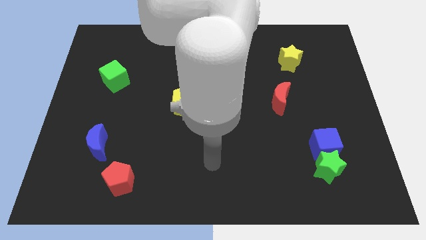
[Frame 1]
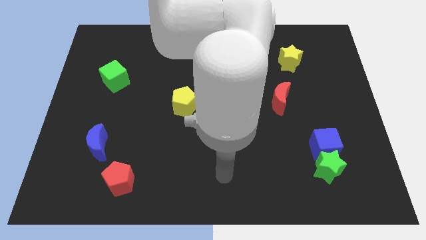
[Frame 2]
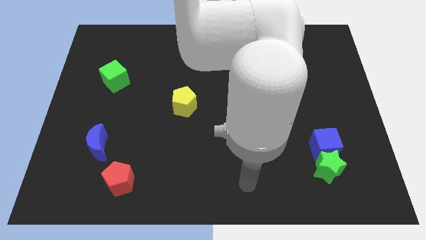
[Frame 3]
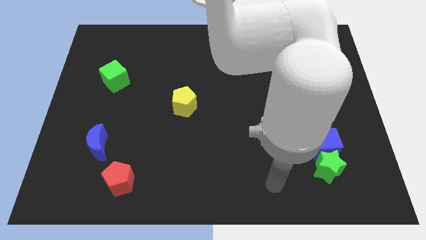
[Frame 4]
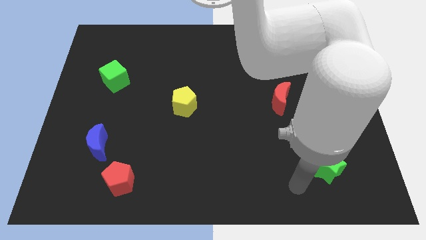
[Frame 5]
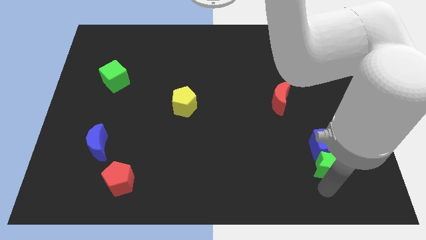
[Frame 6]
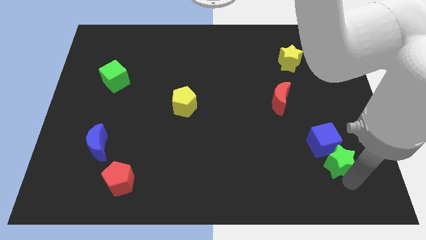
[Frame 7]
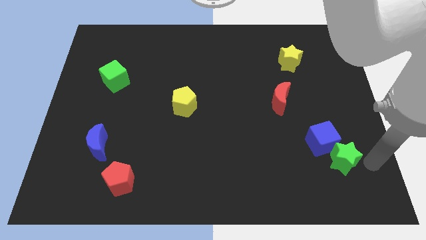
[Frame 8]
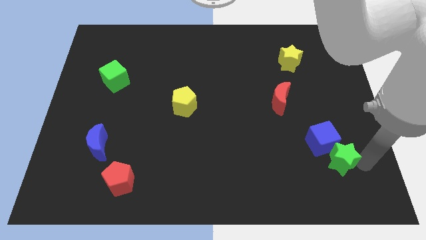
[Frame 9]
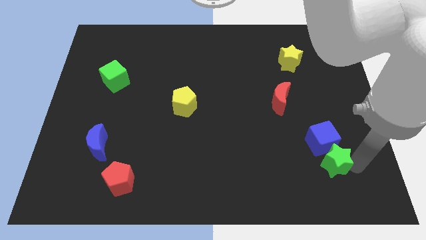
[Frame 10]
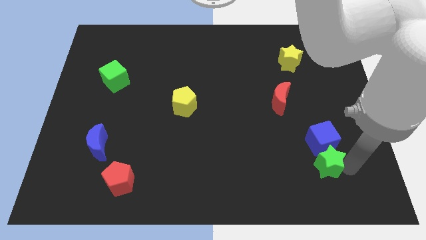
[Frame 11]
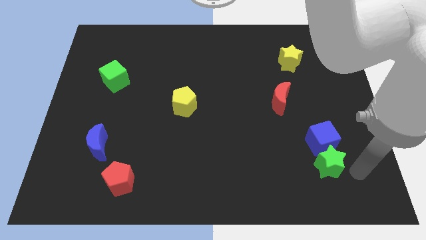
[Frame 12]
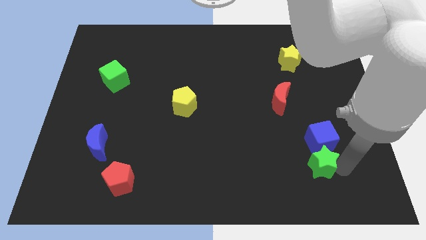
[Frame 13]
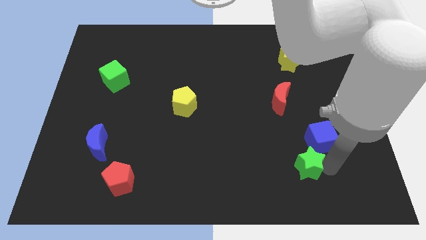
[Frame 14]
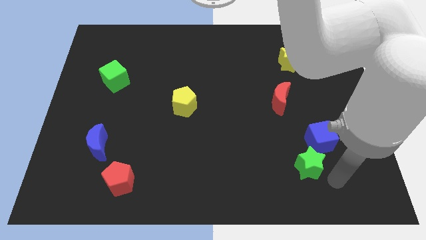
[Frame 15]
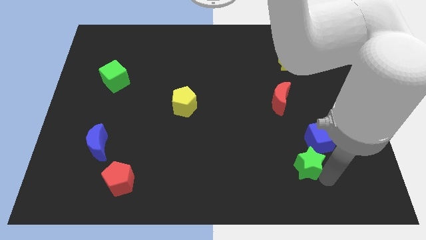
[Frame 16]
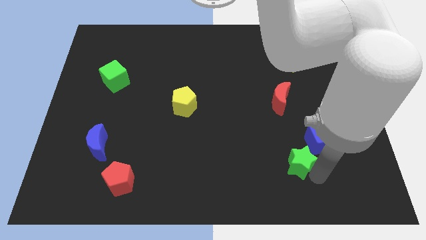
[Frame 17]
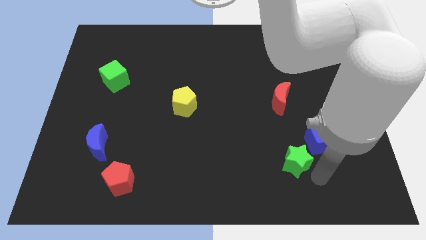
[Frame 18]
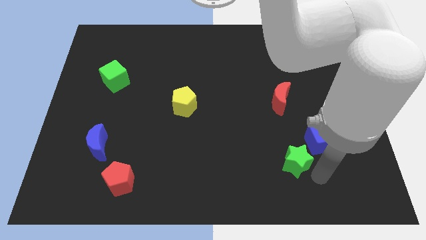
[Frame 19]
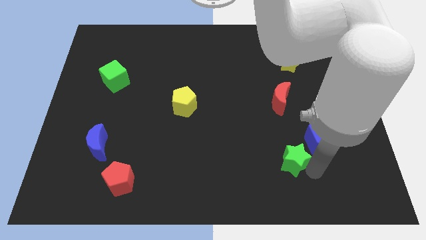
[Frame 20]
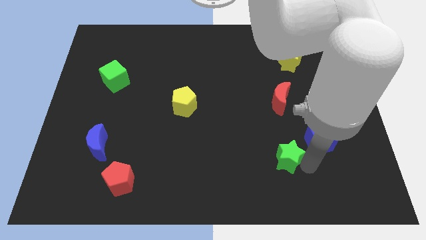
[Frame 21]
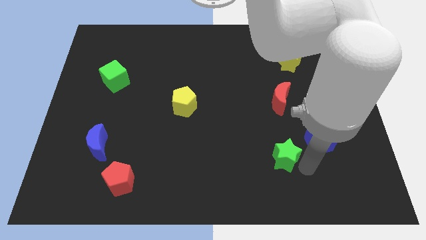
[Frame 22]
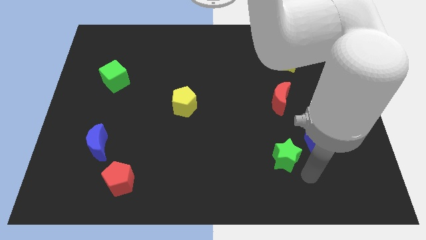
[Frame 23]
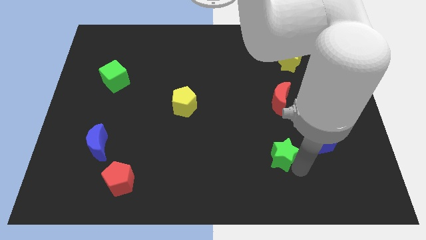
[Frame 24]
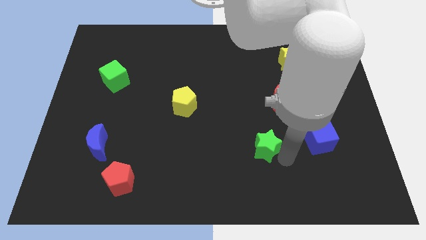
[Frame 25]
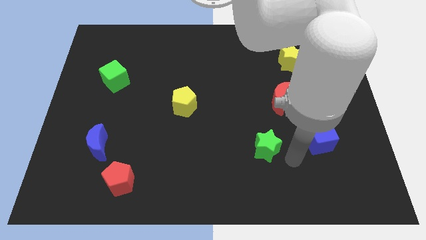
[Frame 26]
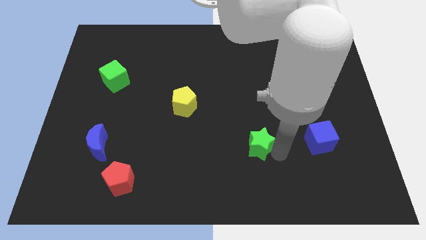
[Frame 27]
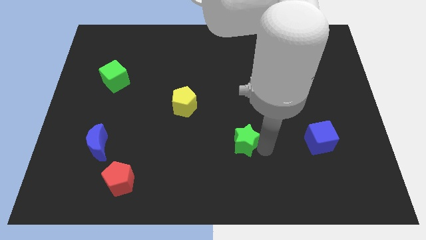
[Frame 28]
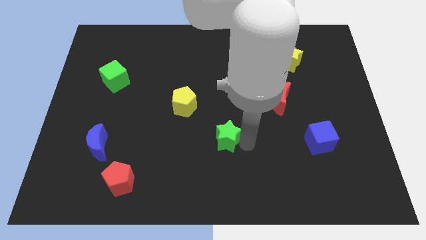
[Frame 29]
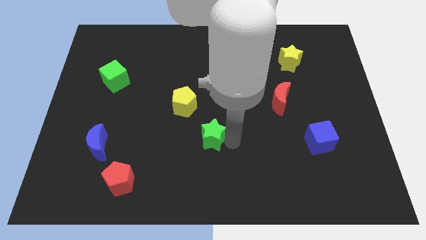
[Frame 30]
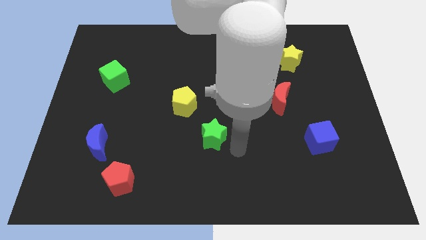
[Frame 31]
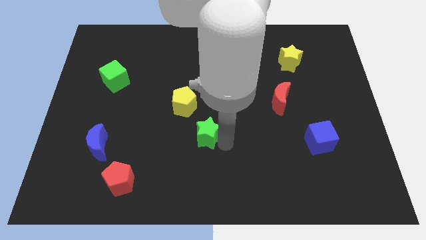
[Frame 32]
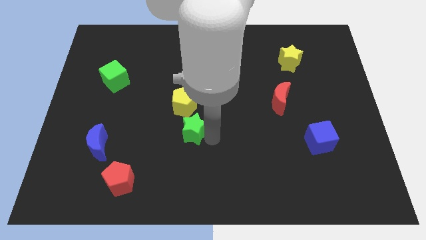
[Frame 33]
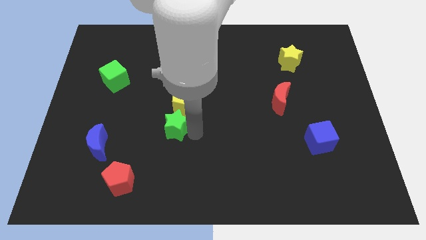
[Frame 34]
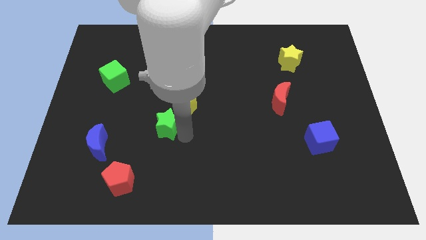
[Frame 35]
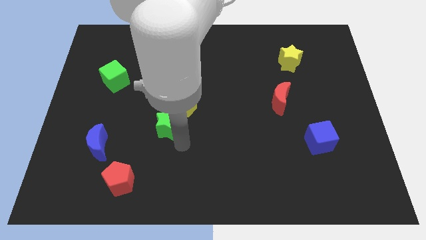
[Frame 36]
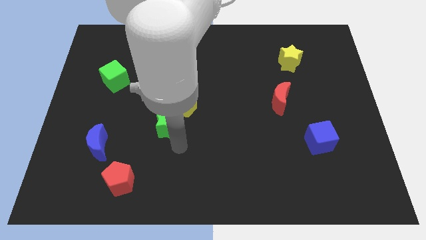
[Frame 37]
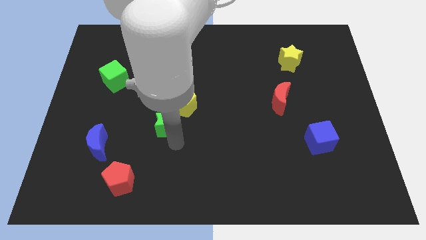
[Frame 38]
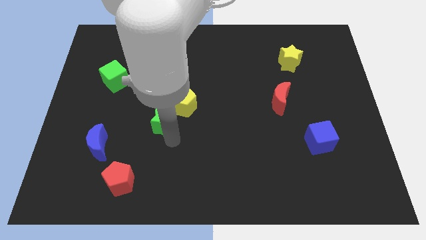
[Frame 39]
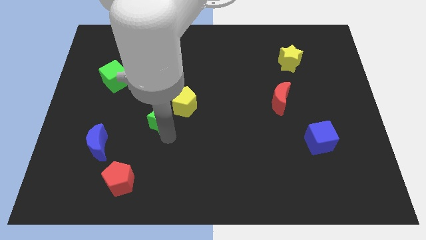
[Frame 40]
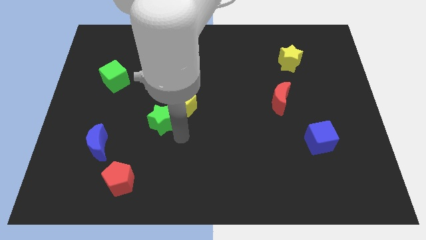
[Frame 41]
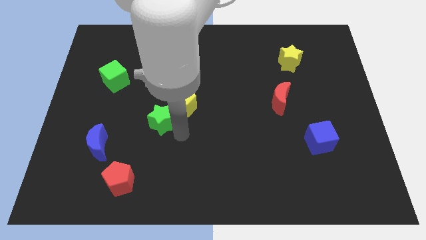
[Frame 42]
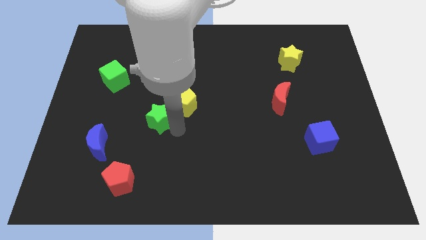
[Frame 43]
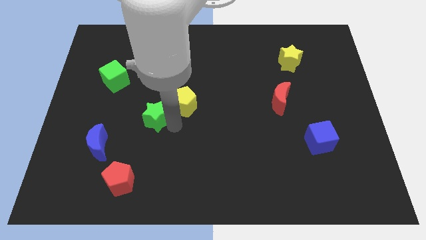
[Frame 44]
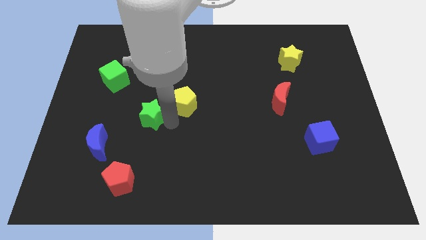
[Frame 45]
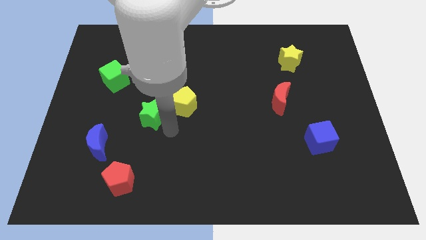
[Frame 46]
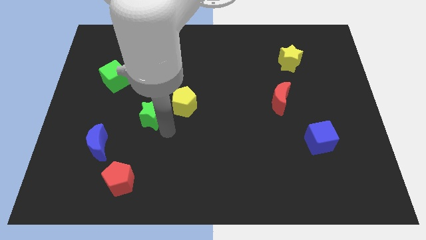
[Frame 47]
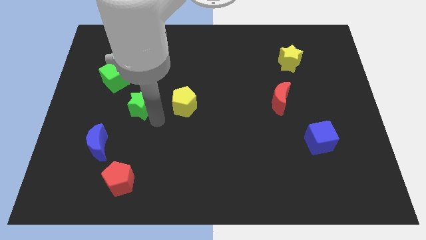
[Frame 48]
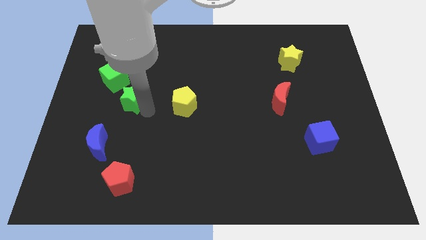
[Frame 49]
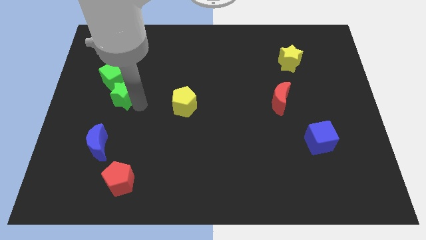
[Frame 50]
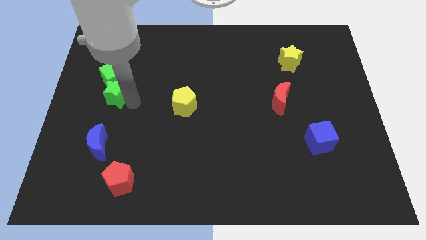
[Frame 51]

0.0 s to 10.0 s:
put the green star close to the green cube

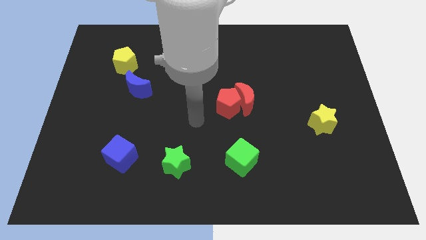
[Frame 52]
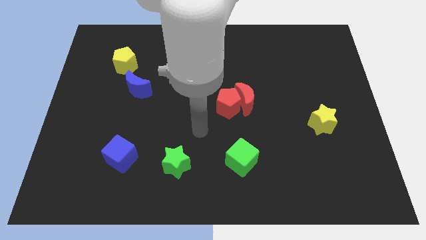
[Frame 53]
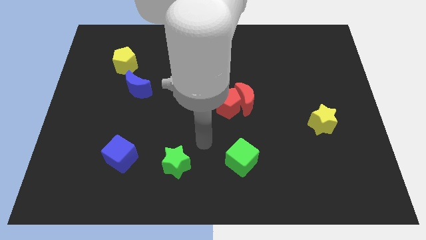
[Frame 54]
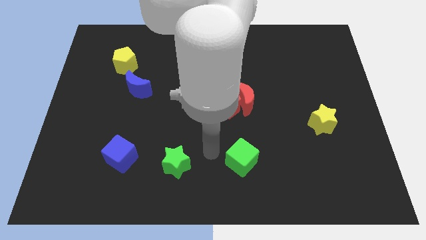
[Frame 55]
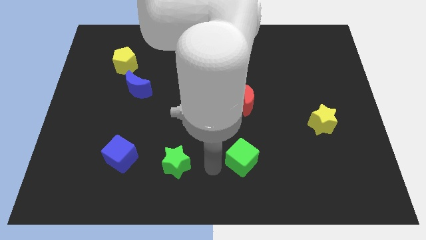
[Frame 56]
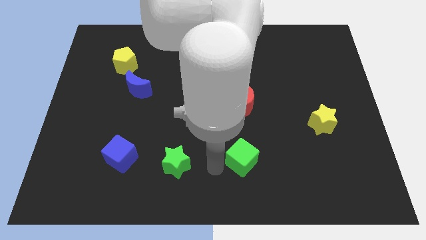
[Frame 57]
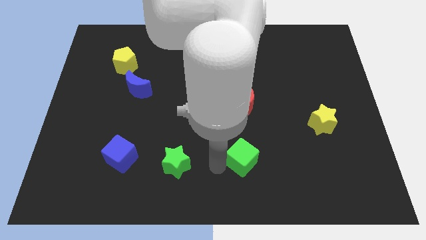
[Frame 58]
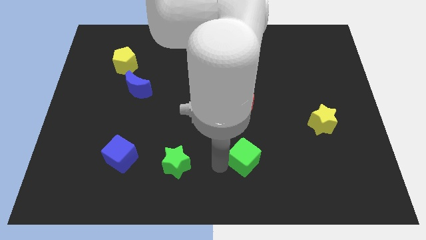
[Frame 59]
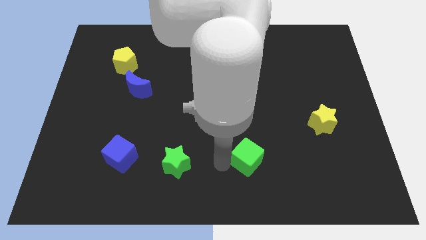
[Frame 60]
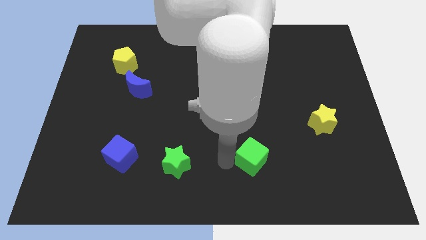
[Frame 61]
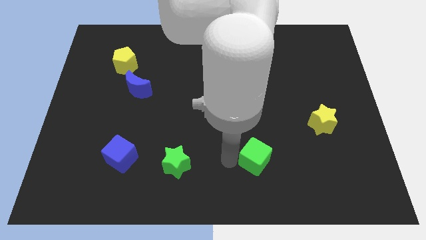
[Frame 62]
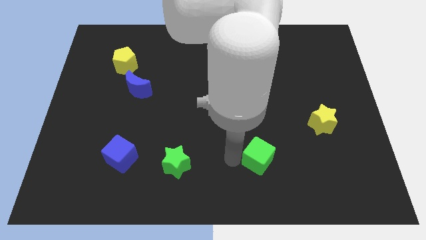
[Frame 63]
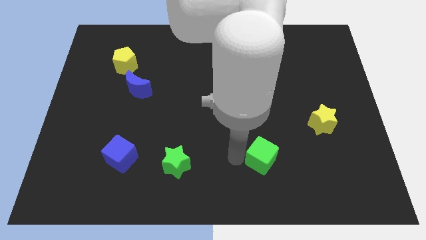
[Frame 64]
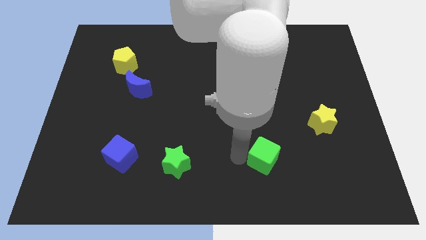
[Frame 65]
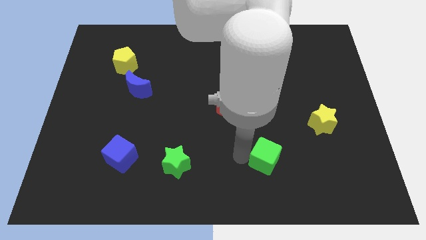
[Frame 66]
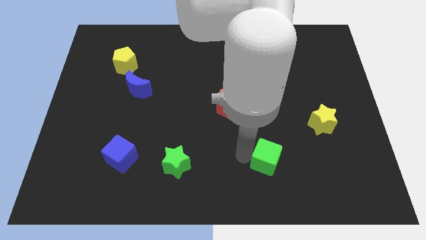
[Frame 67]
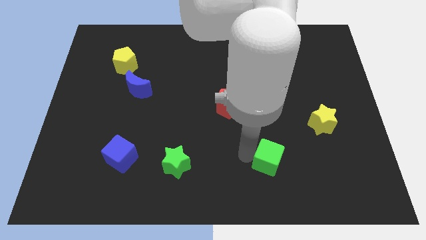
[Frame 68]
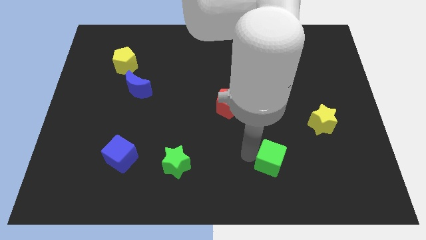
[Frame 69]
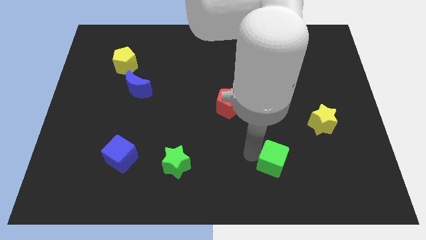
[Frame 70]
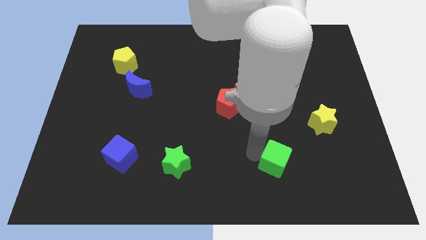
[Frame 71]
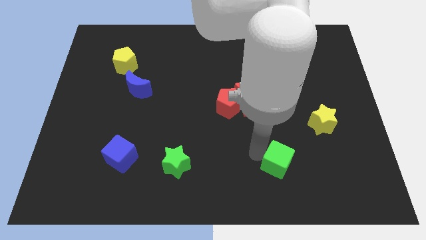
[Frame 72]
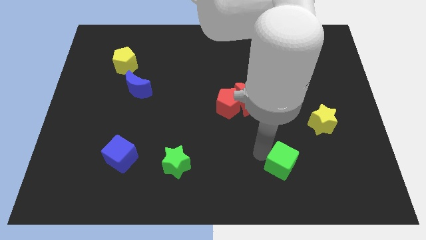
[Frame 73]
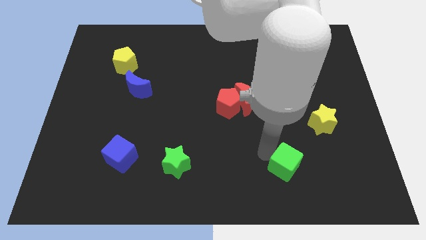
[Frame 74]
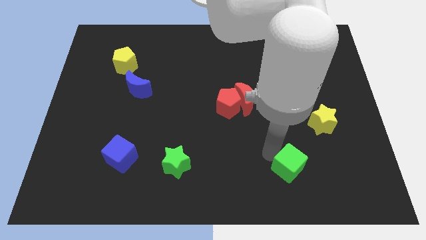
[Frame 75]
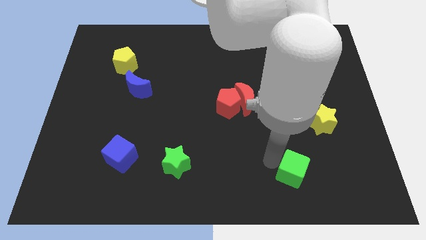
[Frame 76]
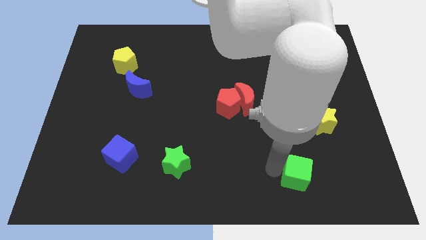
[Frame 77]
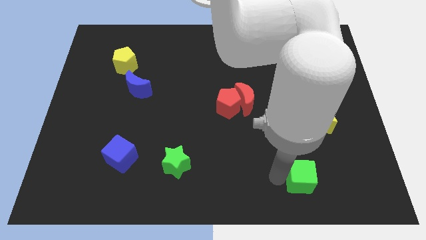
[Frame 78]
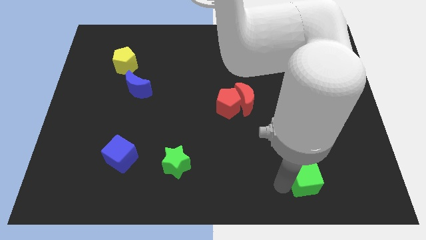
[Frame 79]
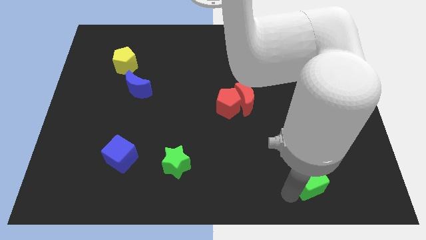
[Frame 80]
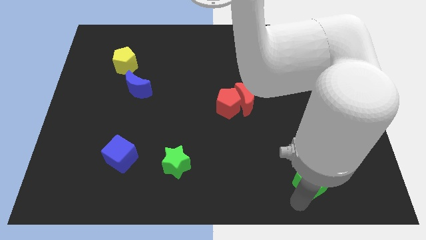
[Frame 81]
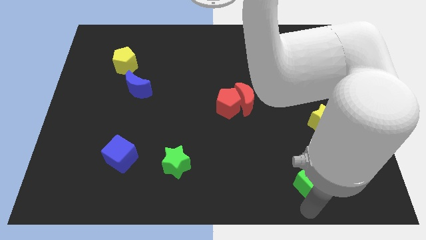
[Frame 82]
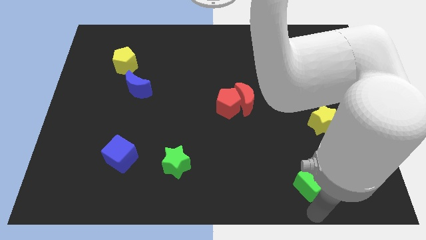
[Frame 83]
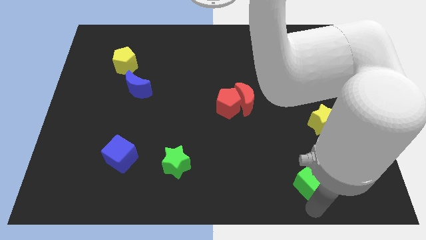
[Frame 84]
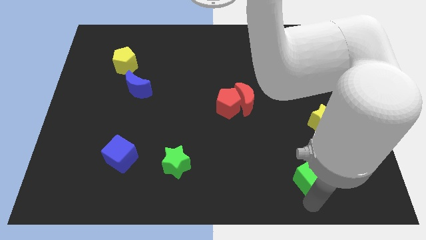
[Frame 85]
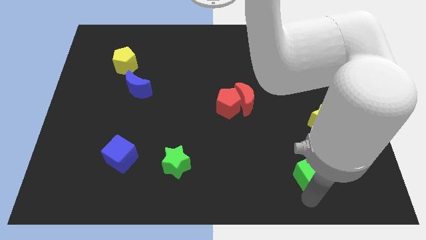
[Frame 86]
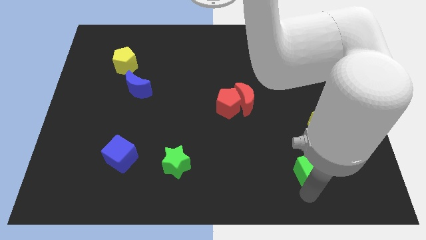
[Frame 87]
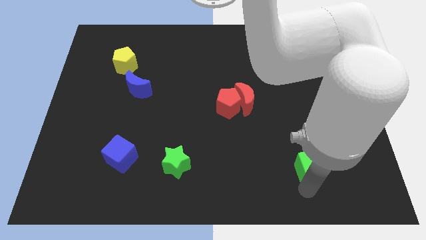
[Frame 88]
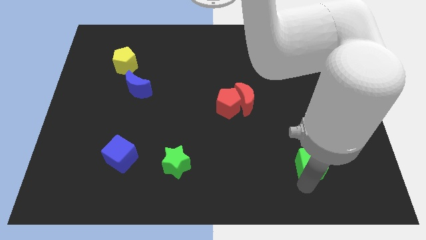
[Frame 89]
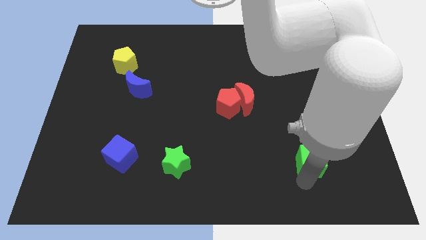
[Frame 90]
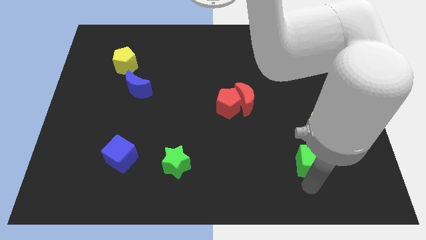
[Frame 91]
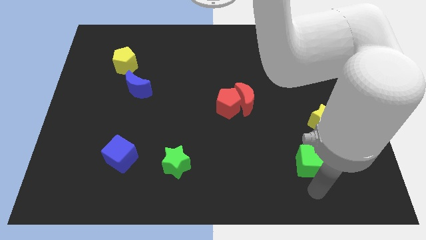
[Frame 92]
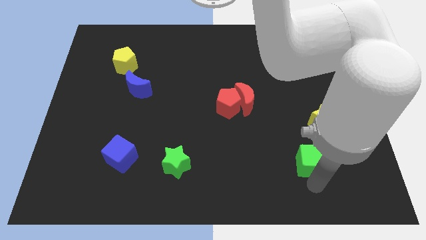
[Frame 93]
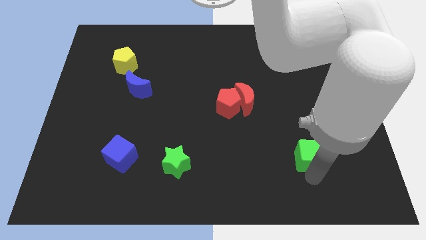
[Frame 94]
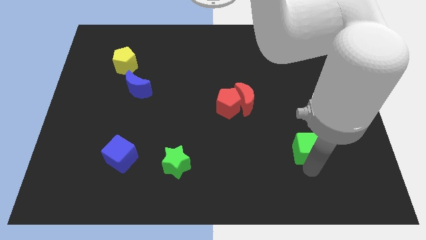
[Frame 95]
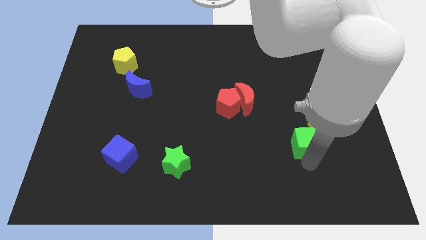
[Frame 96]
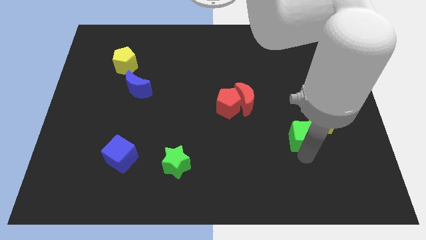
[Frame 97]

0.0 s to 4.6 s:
move the green cube close to the yellow star
